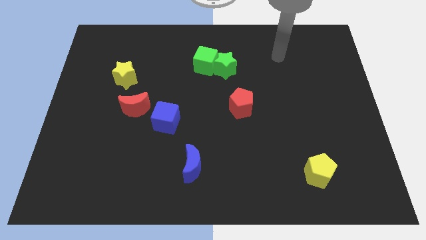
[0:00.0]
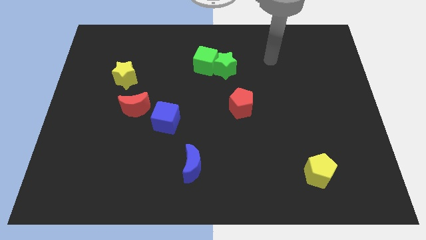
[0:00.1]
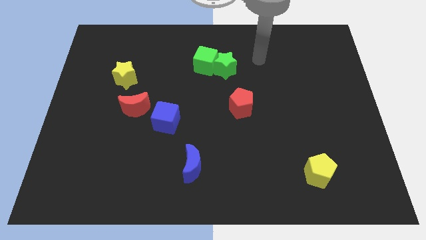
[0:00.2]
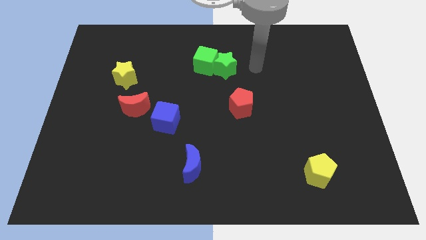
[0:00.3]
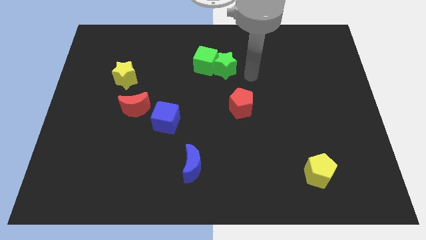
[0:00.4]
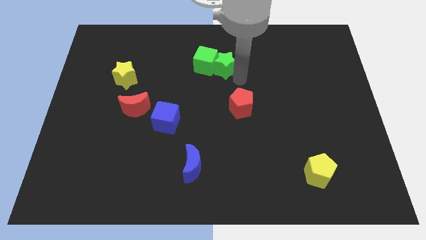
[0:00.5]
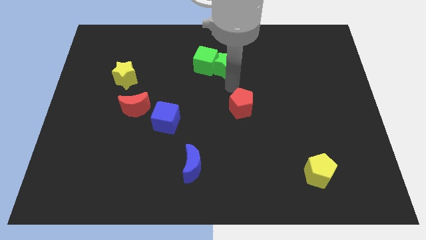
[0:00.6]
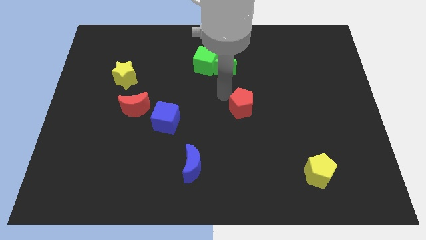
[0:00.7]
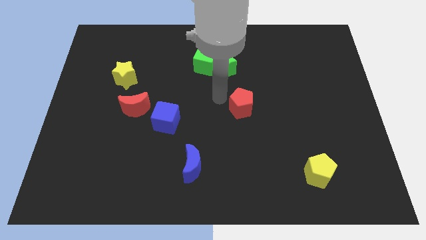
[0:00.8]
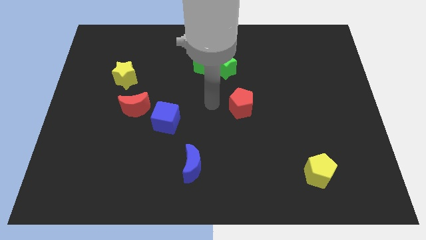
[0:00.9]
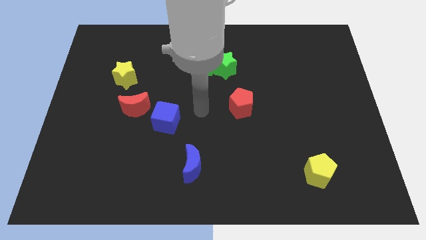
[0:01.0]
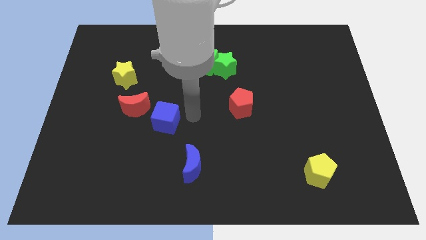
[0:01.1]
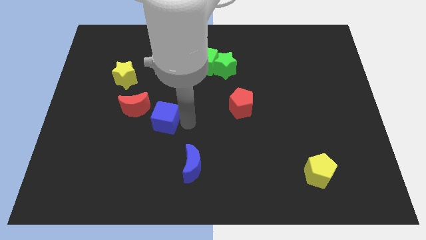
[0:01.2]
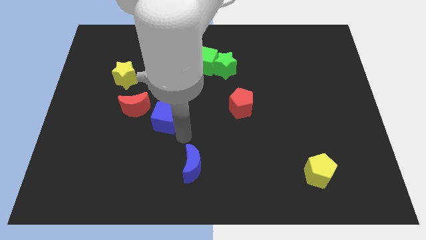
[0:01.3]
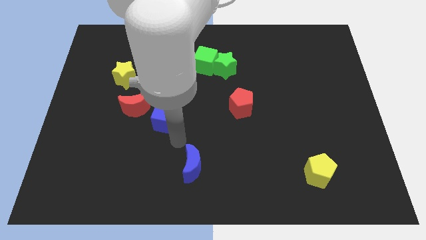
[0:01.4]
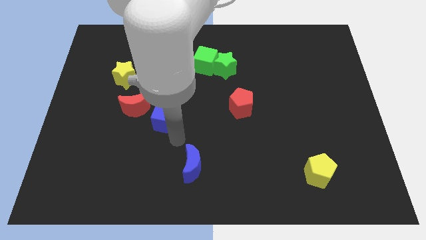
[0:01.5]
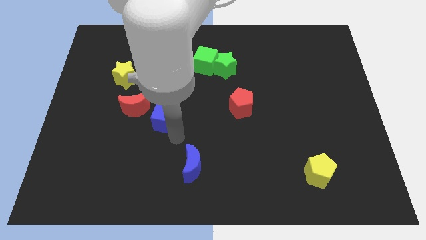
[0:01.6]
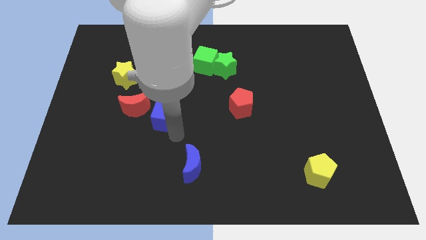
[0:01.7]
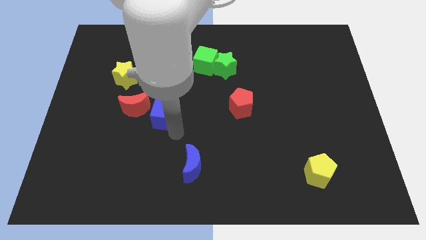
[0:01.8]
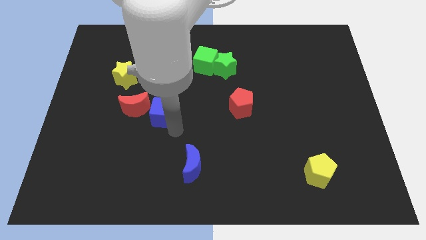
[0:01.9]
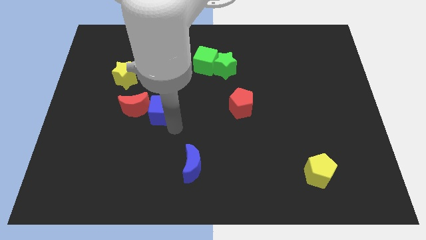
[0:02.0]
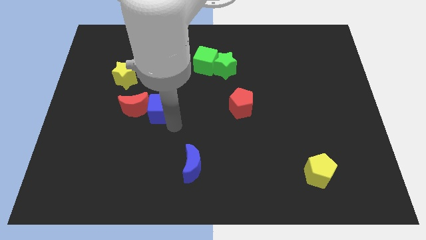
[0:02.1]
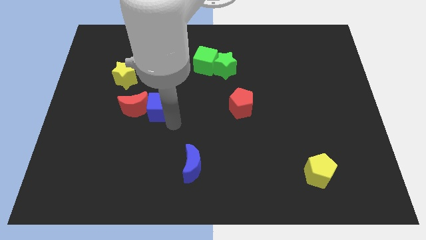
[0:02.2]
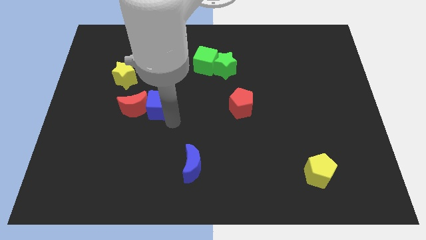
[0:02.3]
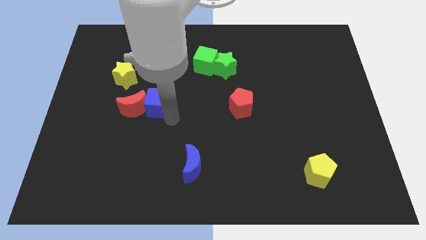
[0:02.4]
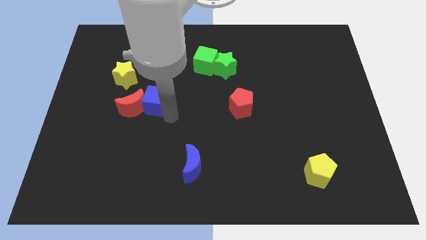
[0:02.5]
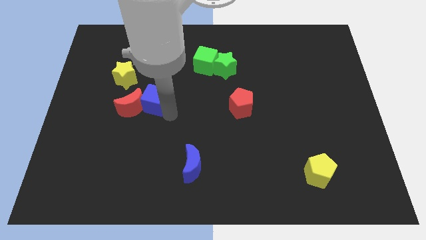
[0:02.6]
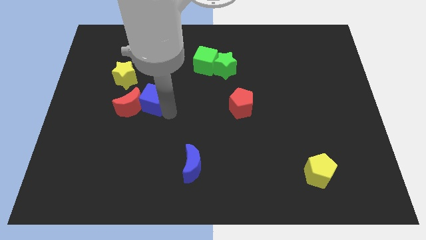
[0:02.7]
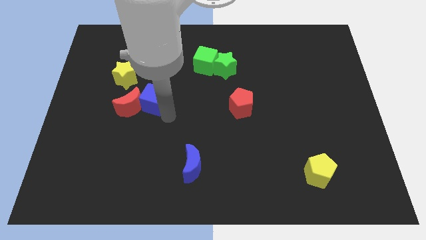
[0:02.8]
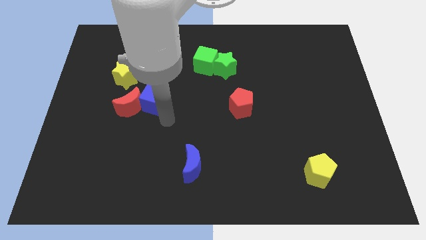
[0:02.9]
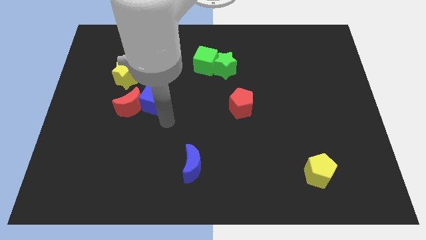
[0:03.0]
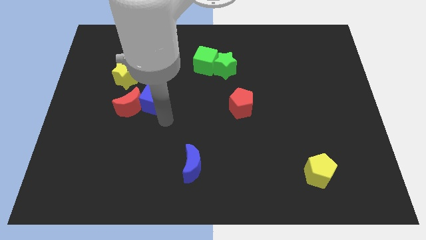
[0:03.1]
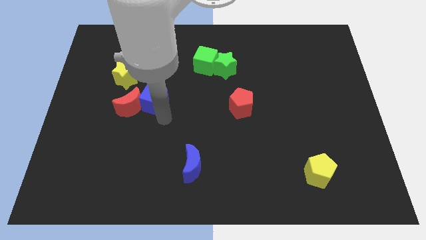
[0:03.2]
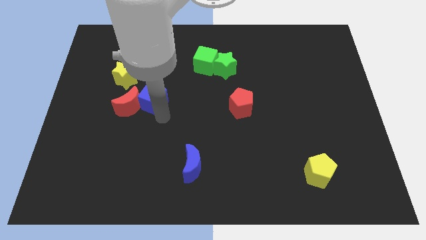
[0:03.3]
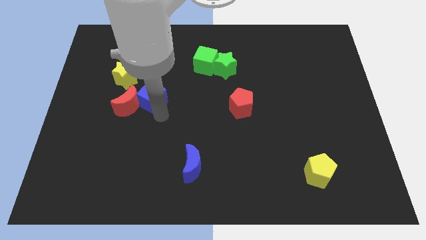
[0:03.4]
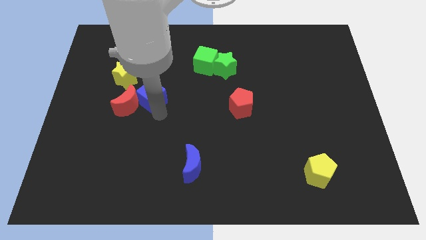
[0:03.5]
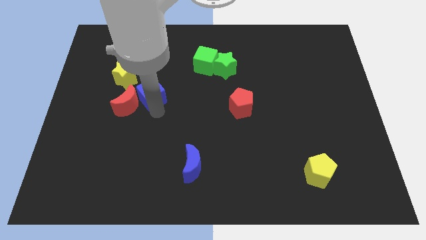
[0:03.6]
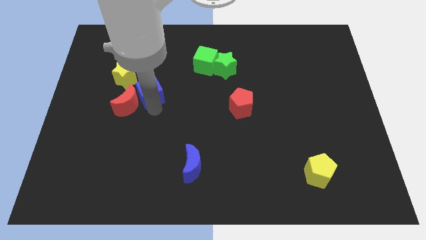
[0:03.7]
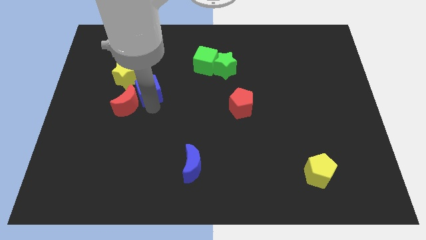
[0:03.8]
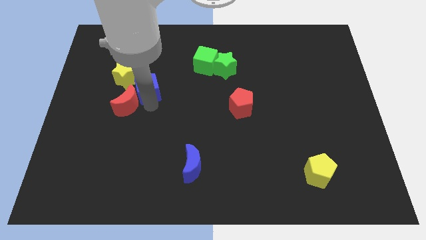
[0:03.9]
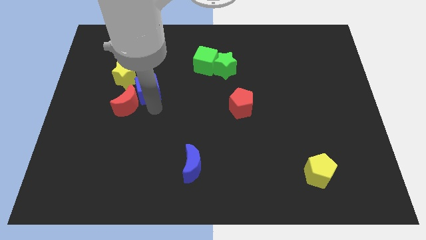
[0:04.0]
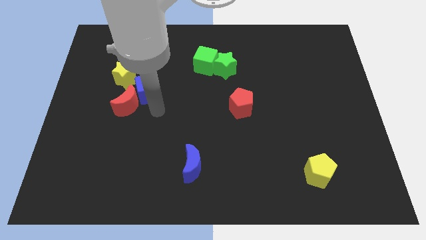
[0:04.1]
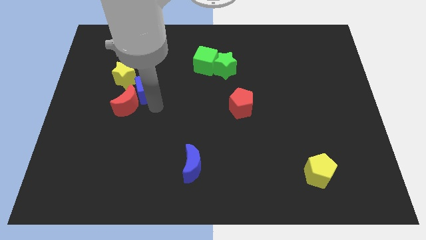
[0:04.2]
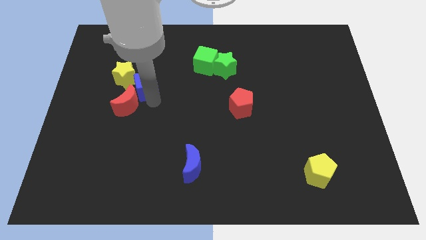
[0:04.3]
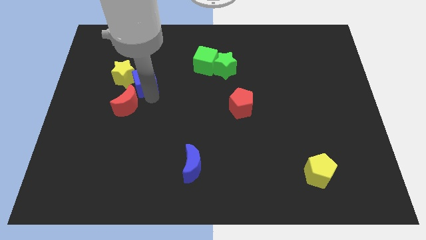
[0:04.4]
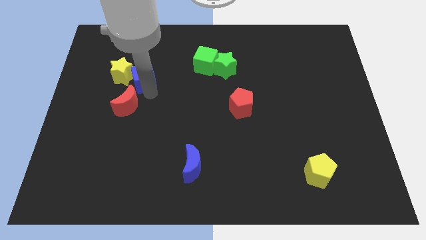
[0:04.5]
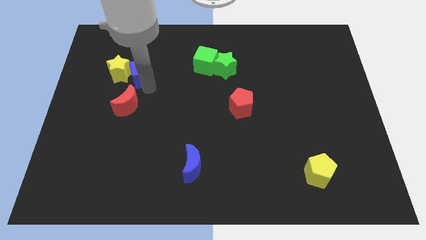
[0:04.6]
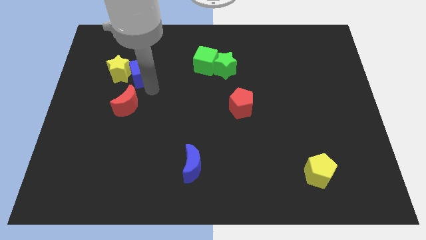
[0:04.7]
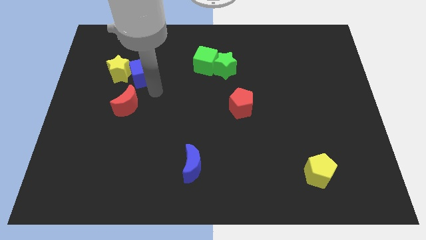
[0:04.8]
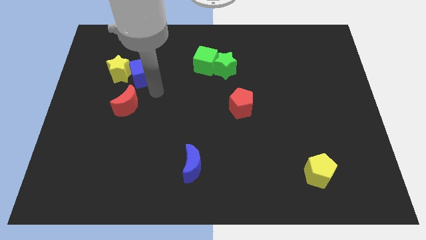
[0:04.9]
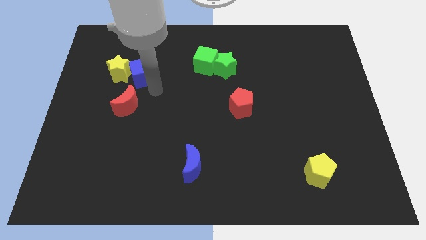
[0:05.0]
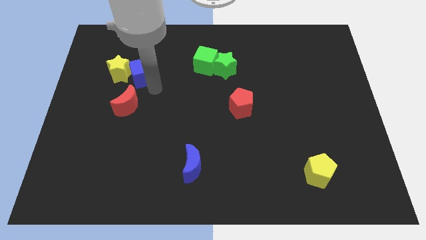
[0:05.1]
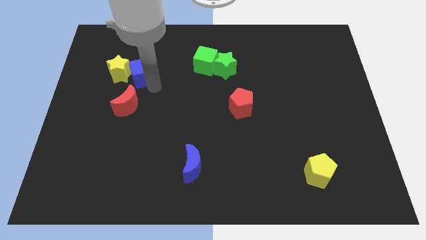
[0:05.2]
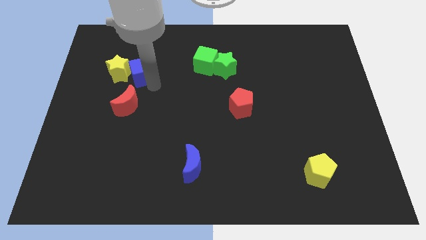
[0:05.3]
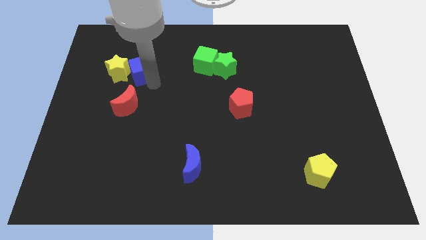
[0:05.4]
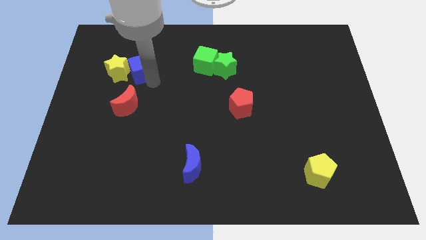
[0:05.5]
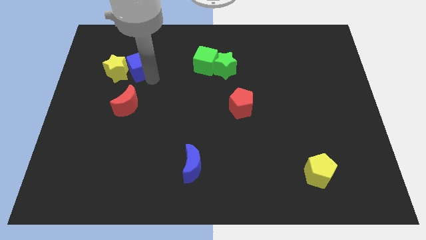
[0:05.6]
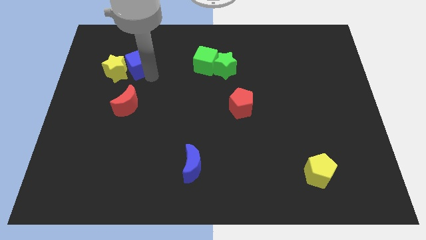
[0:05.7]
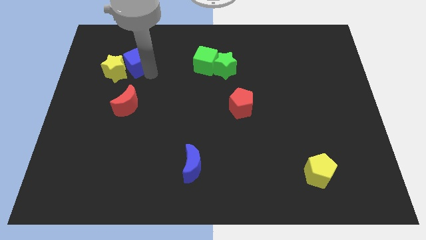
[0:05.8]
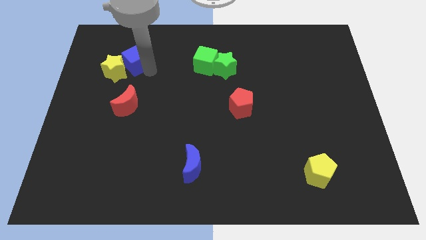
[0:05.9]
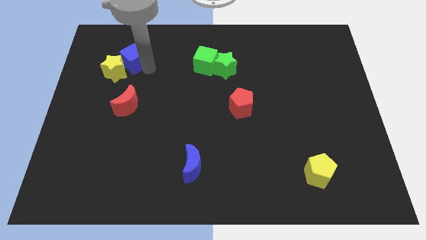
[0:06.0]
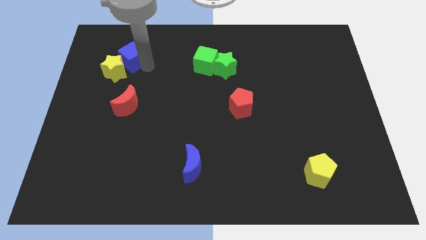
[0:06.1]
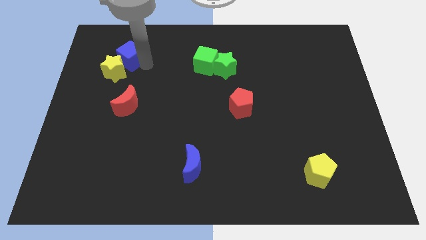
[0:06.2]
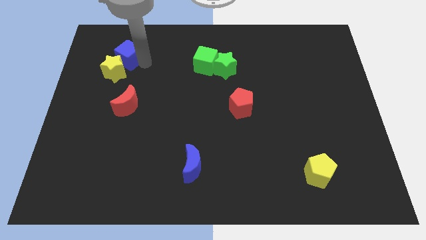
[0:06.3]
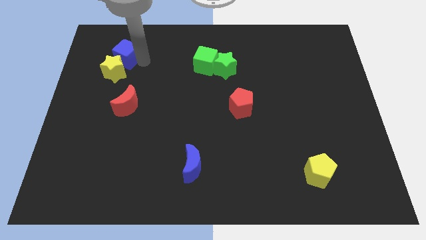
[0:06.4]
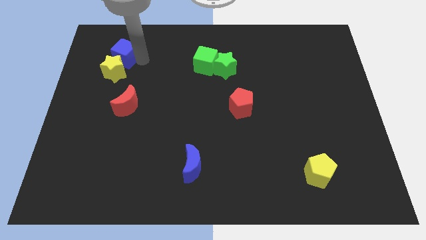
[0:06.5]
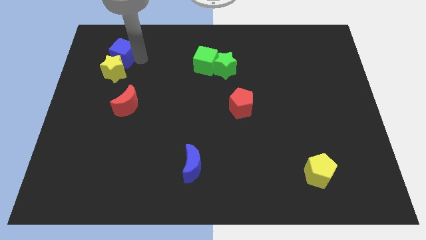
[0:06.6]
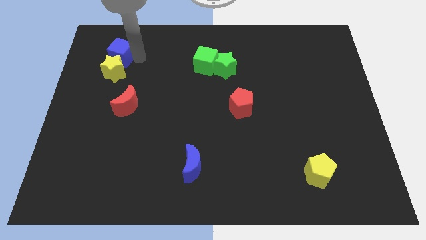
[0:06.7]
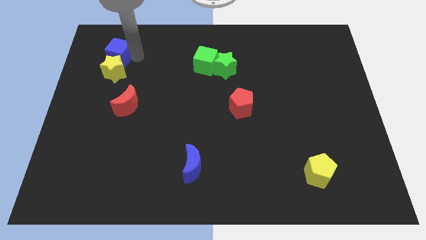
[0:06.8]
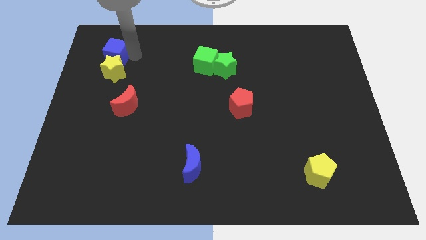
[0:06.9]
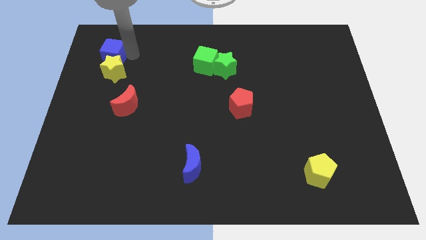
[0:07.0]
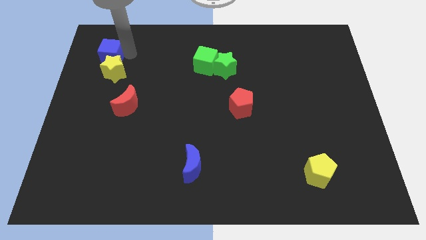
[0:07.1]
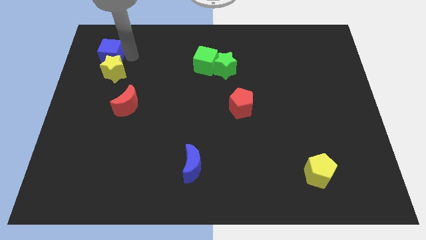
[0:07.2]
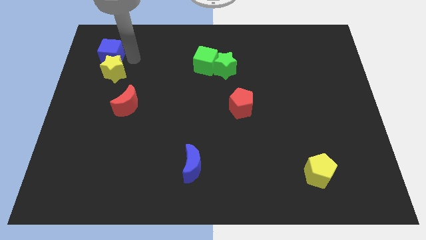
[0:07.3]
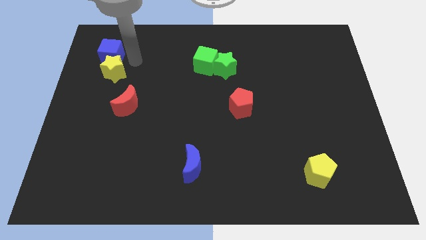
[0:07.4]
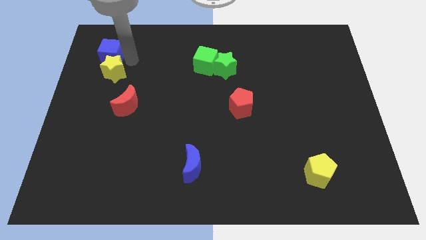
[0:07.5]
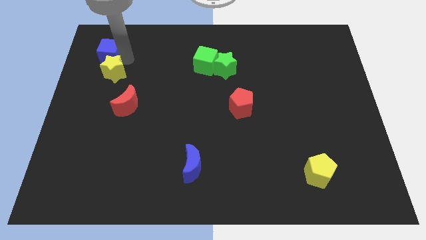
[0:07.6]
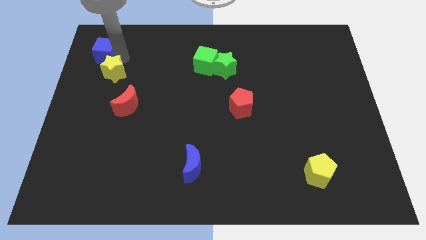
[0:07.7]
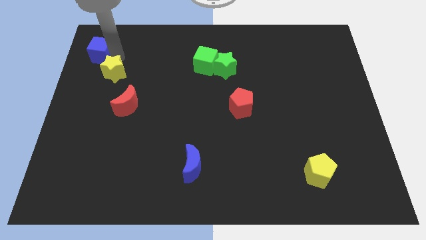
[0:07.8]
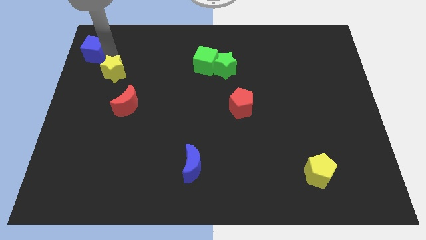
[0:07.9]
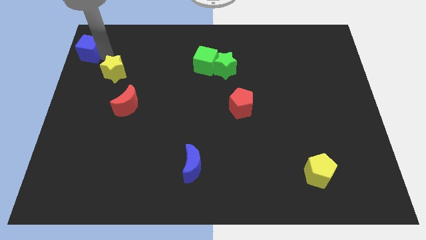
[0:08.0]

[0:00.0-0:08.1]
move the blue cube to the top left of the board
